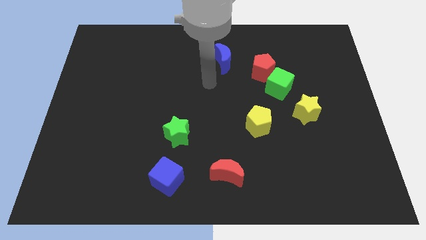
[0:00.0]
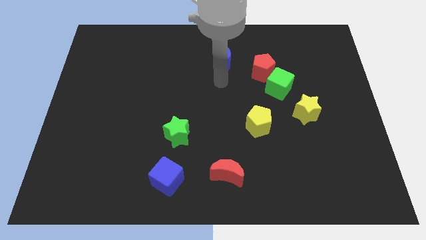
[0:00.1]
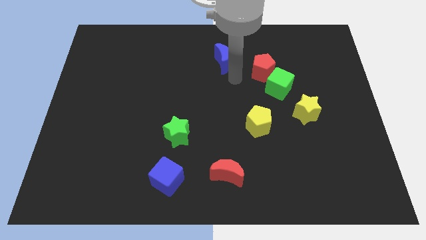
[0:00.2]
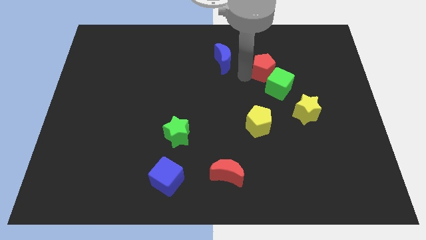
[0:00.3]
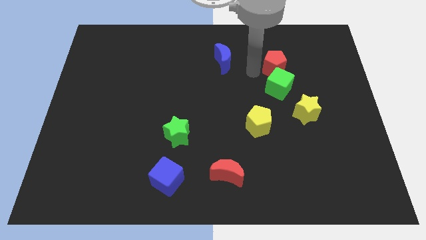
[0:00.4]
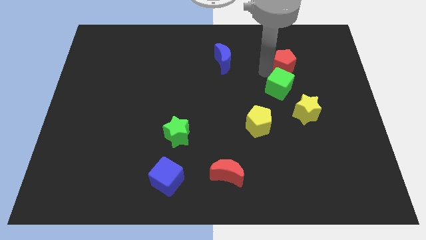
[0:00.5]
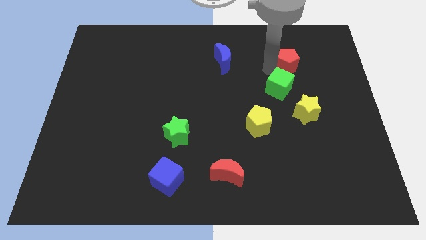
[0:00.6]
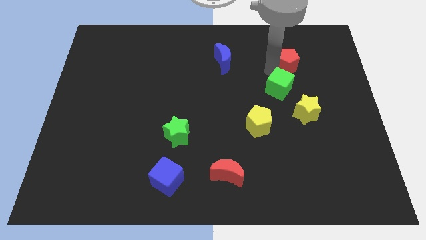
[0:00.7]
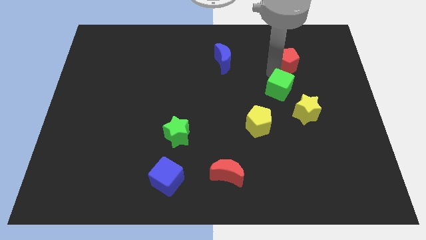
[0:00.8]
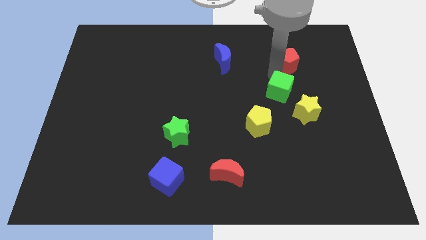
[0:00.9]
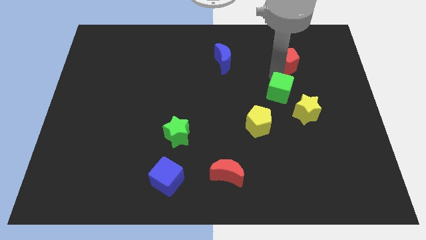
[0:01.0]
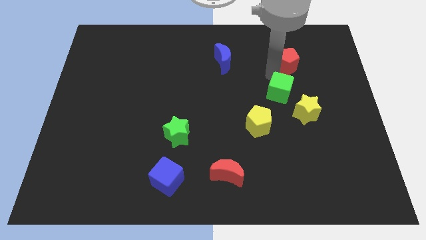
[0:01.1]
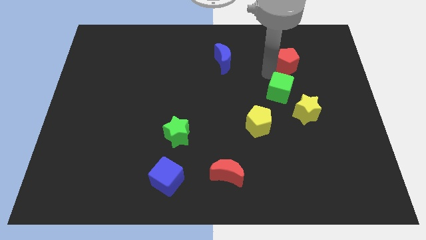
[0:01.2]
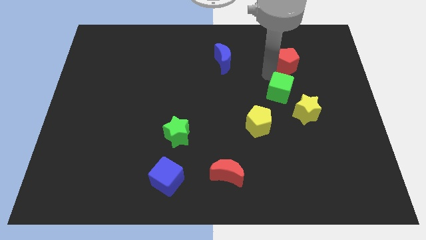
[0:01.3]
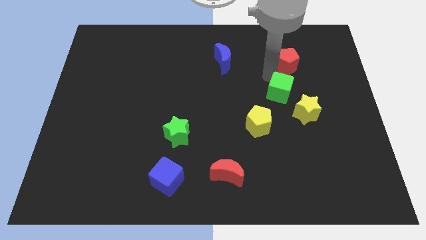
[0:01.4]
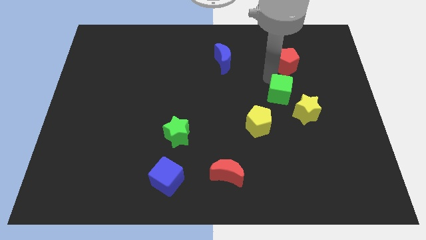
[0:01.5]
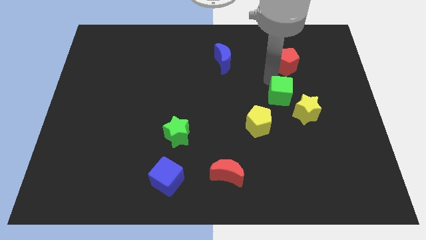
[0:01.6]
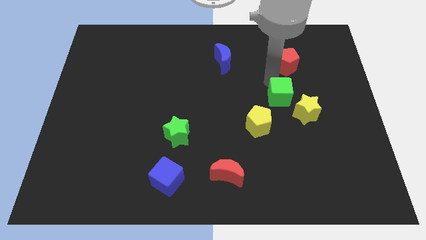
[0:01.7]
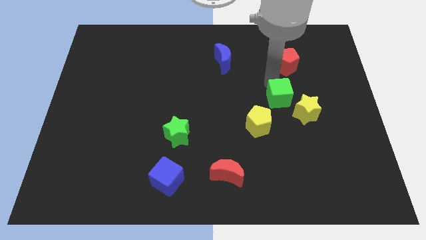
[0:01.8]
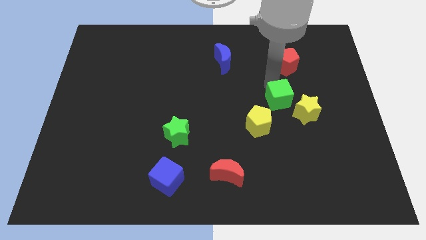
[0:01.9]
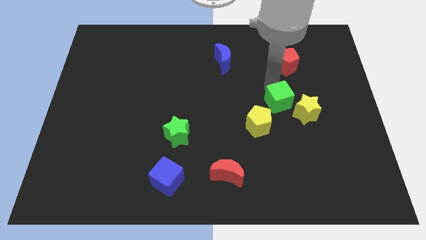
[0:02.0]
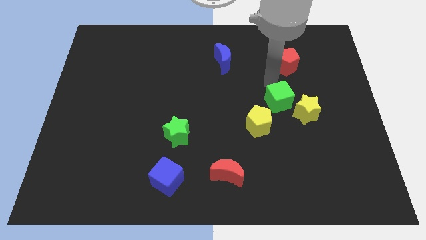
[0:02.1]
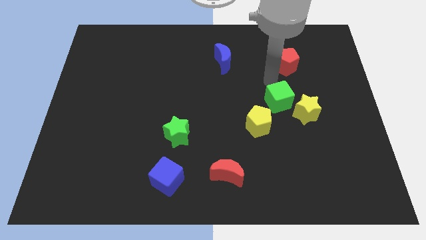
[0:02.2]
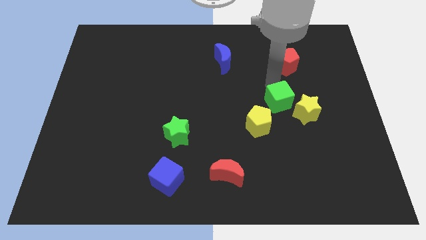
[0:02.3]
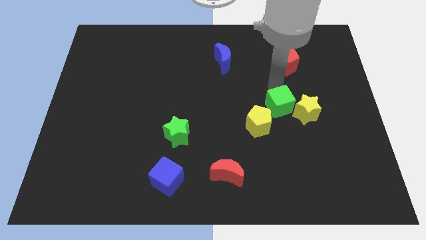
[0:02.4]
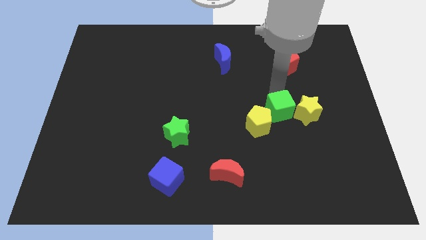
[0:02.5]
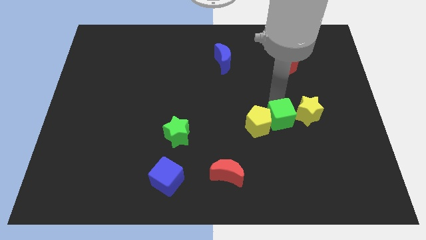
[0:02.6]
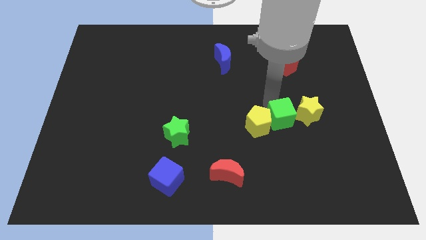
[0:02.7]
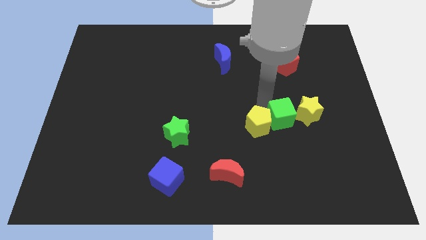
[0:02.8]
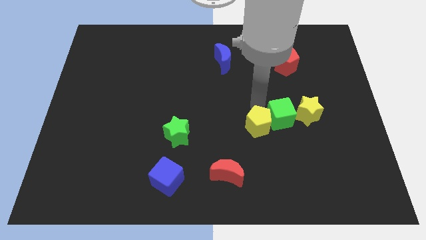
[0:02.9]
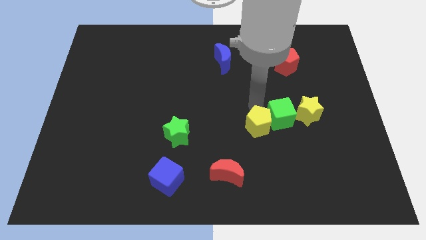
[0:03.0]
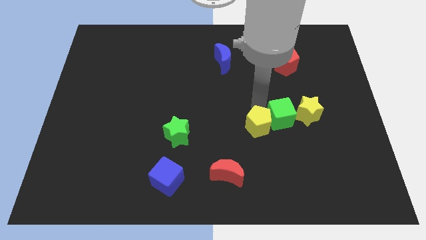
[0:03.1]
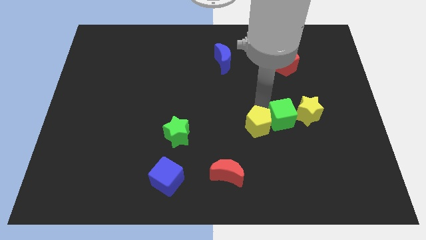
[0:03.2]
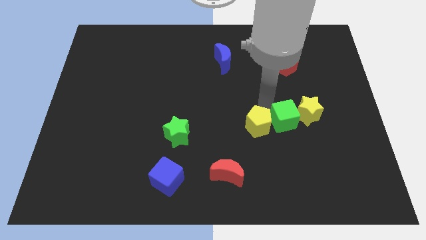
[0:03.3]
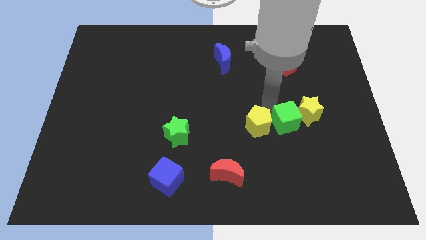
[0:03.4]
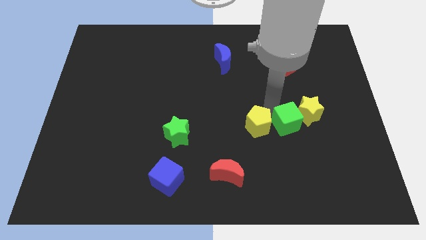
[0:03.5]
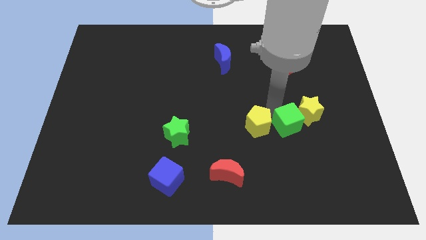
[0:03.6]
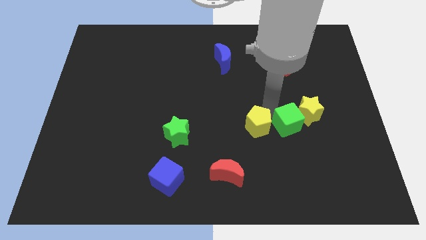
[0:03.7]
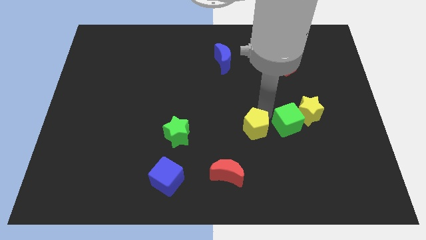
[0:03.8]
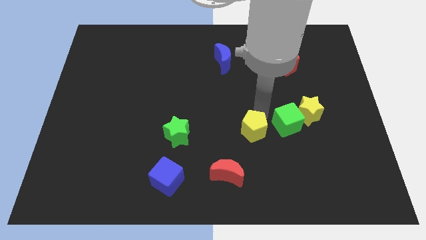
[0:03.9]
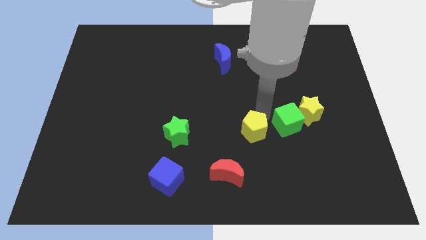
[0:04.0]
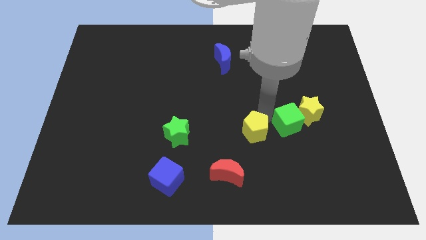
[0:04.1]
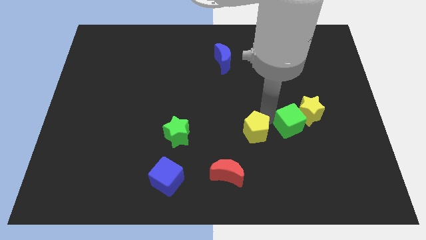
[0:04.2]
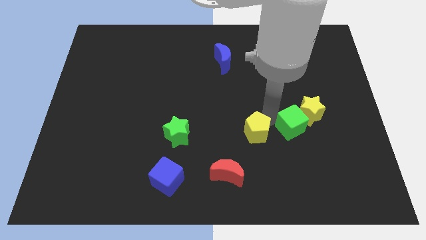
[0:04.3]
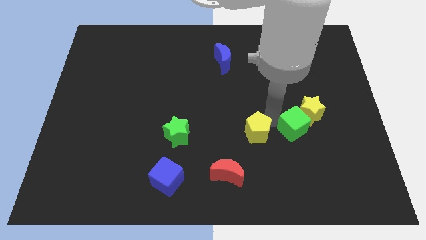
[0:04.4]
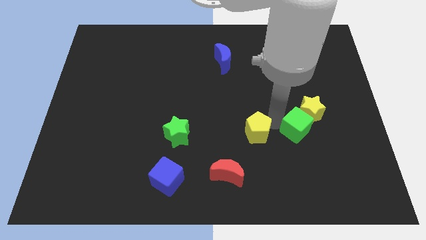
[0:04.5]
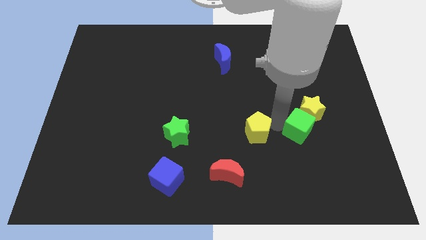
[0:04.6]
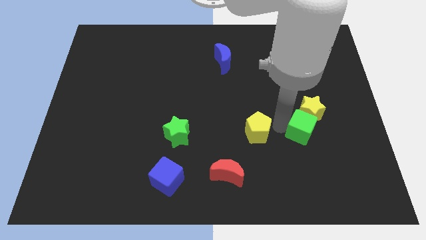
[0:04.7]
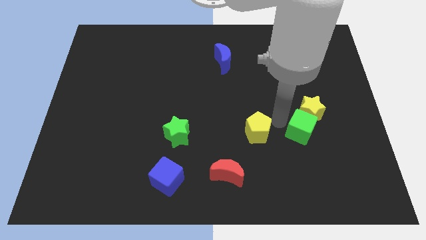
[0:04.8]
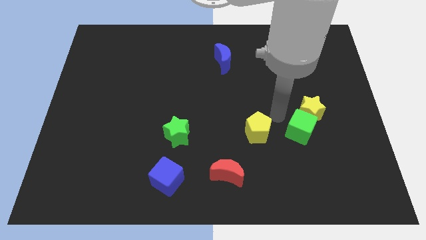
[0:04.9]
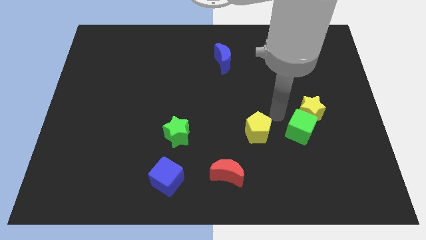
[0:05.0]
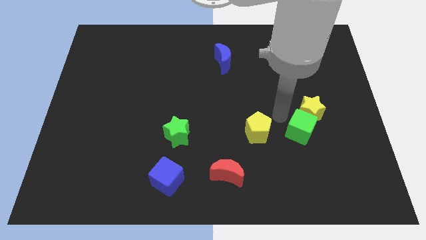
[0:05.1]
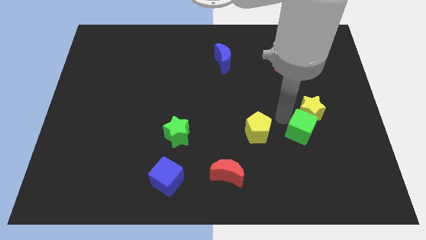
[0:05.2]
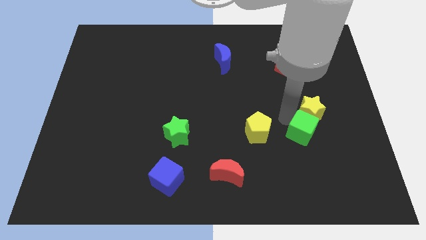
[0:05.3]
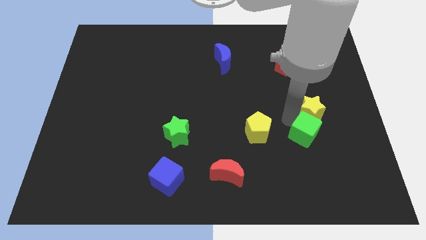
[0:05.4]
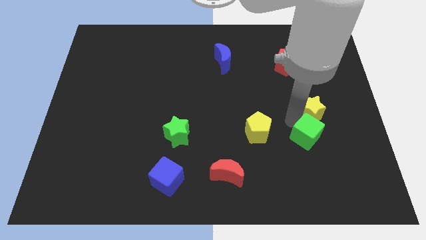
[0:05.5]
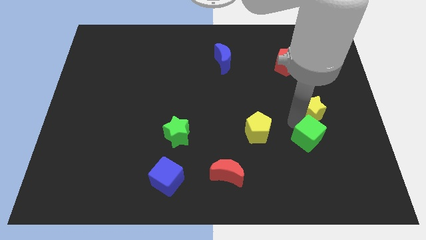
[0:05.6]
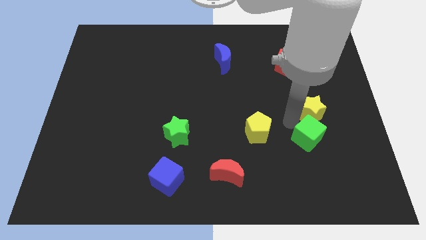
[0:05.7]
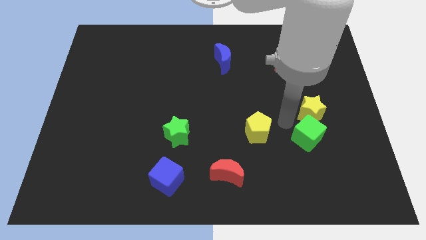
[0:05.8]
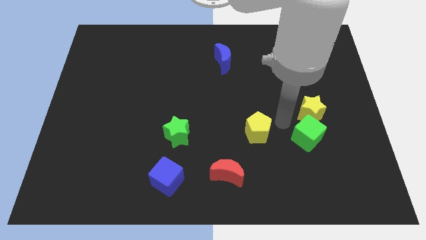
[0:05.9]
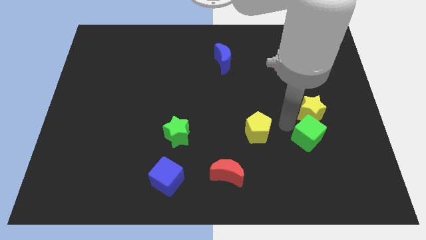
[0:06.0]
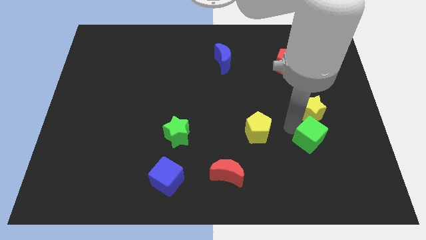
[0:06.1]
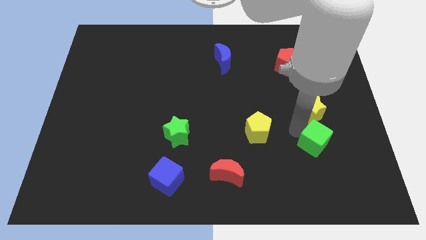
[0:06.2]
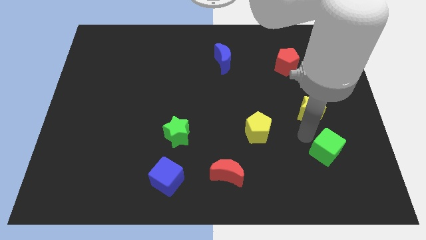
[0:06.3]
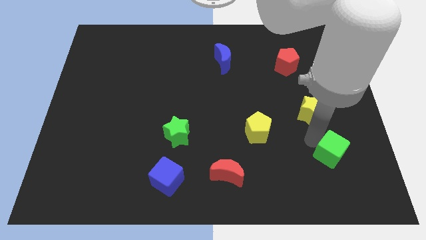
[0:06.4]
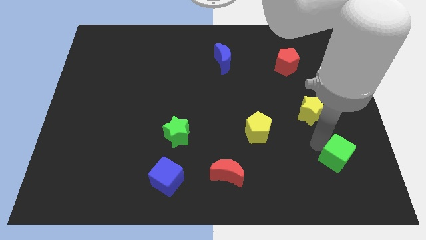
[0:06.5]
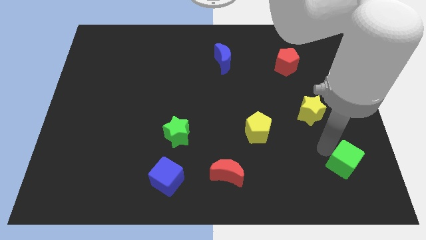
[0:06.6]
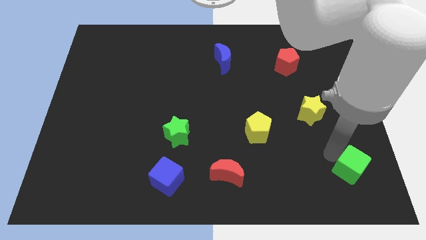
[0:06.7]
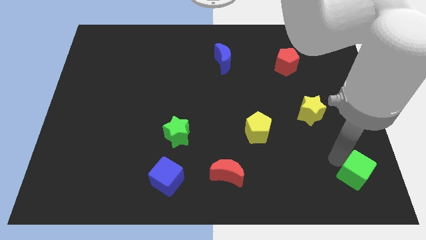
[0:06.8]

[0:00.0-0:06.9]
slide the green cube to the lower right corner
